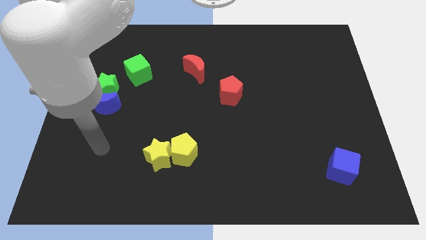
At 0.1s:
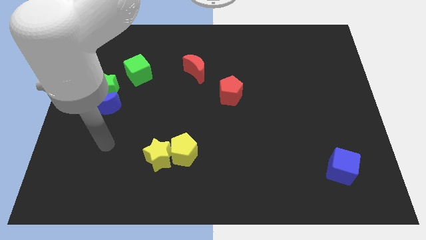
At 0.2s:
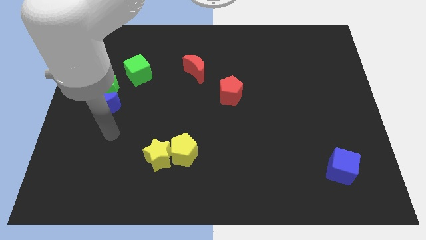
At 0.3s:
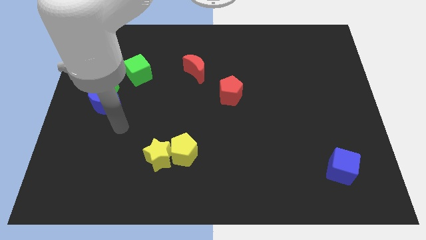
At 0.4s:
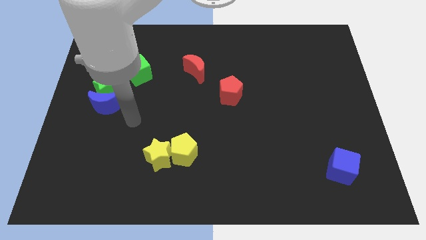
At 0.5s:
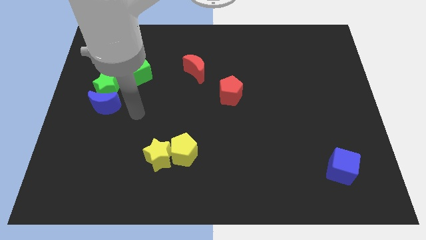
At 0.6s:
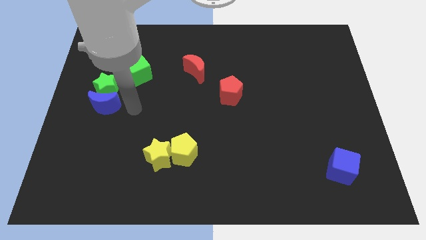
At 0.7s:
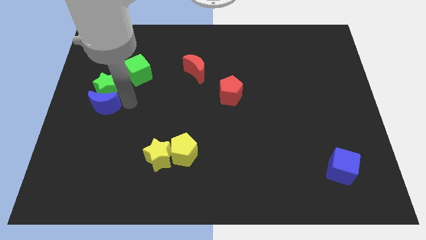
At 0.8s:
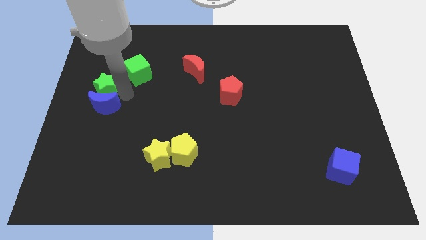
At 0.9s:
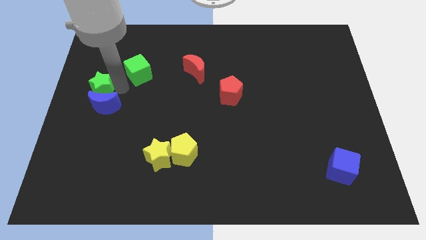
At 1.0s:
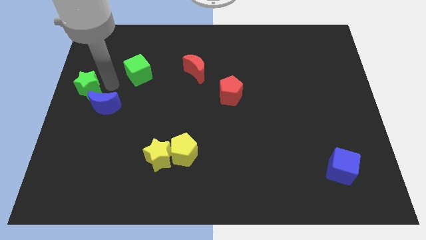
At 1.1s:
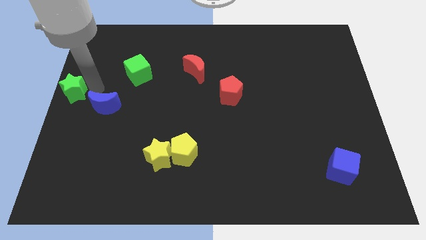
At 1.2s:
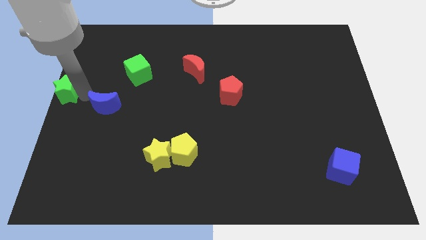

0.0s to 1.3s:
pull the blue moon apart from the green star

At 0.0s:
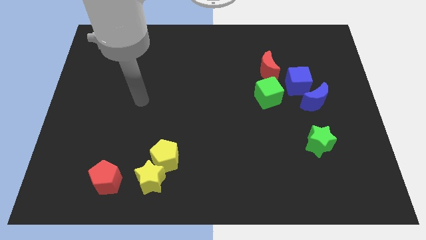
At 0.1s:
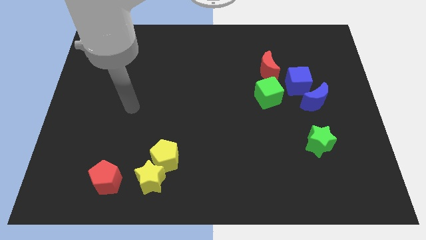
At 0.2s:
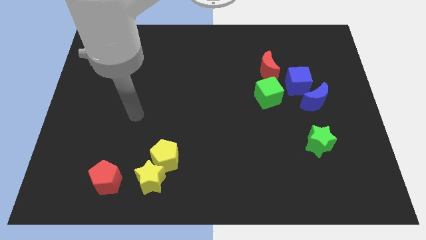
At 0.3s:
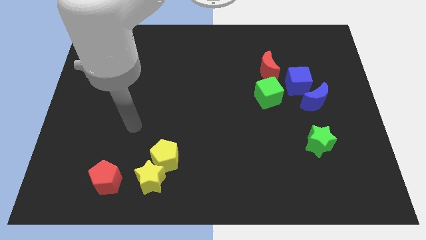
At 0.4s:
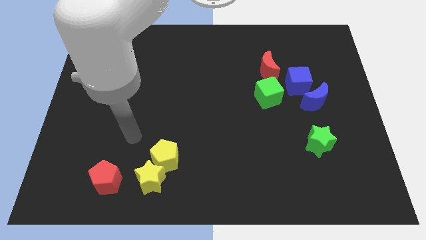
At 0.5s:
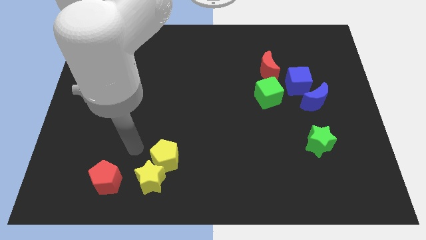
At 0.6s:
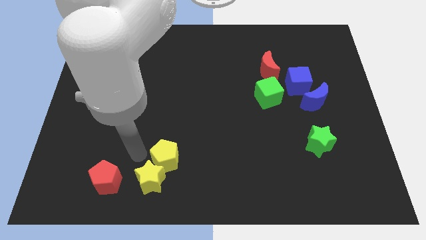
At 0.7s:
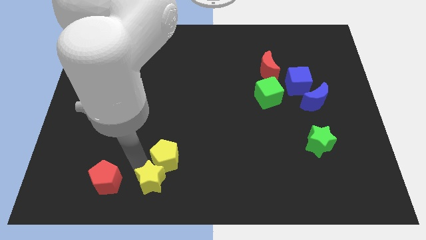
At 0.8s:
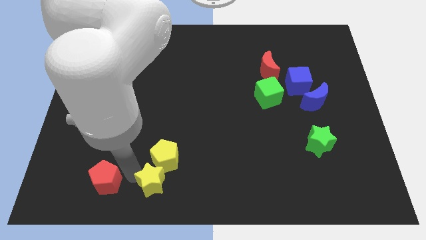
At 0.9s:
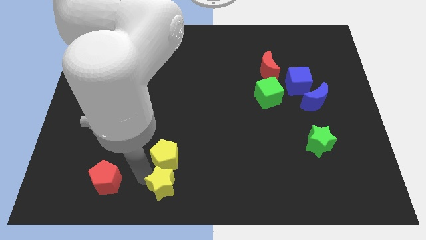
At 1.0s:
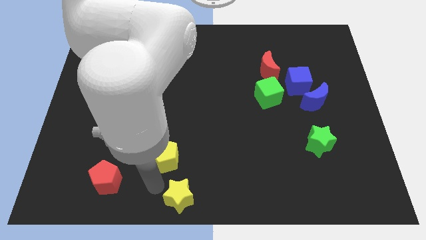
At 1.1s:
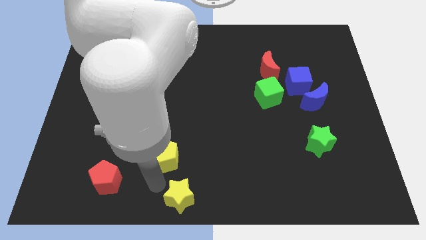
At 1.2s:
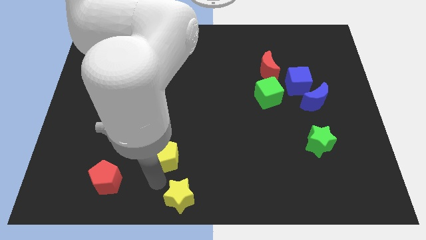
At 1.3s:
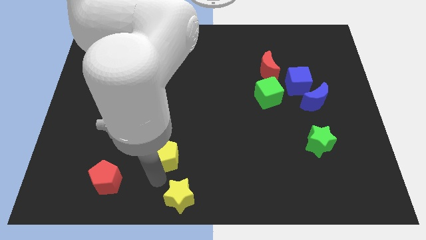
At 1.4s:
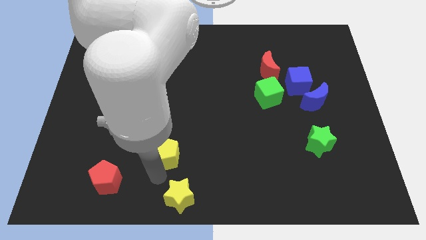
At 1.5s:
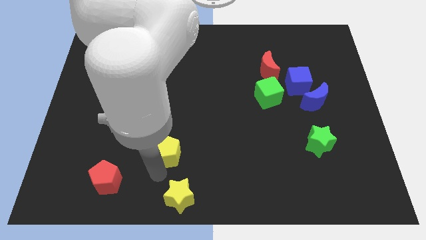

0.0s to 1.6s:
move the yellow pentagon away from the yellow star

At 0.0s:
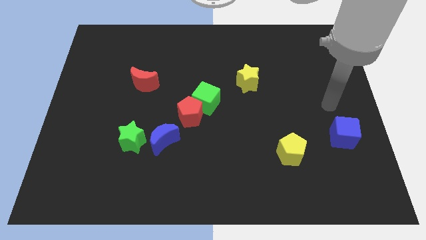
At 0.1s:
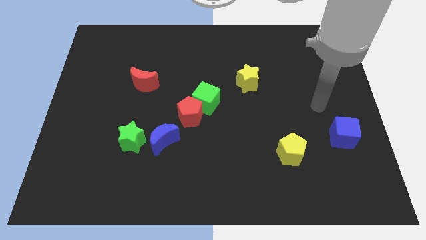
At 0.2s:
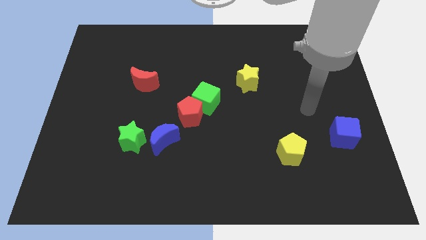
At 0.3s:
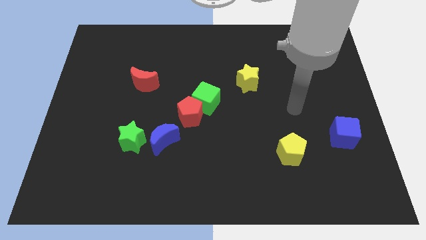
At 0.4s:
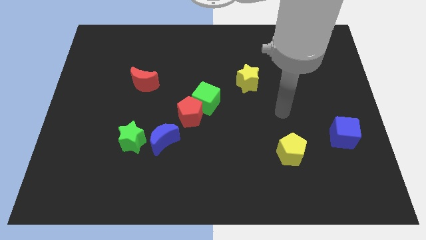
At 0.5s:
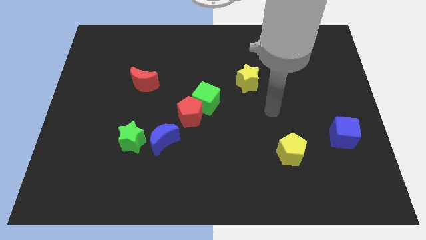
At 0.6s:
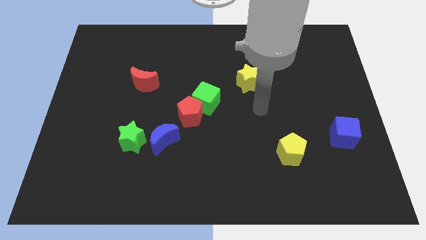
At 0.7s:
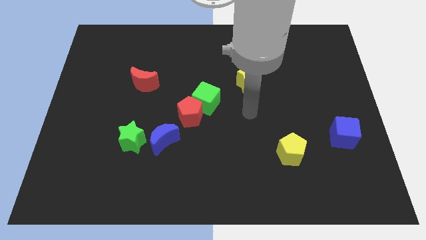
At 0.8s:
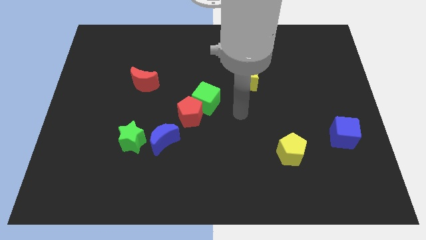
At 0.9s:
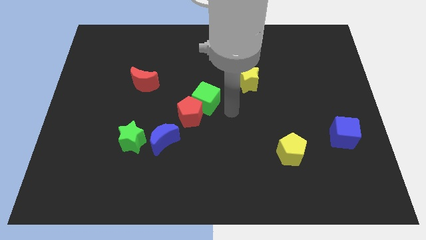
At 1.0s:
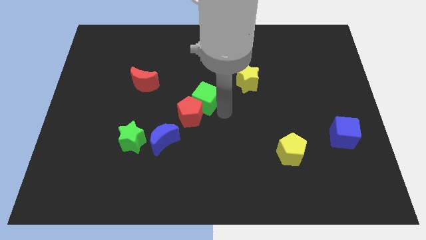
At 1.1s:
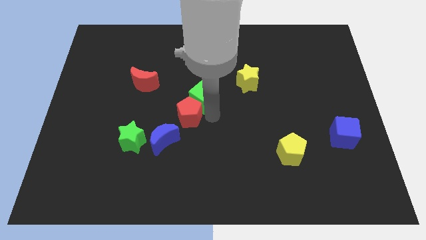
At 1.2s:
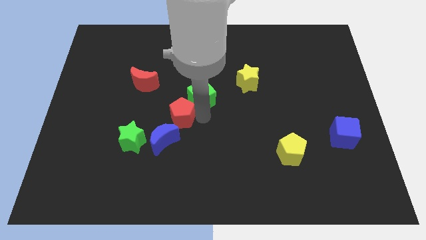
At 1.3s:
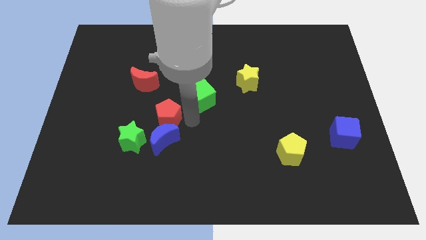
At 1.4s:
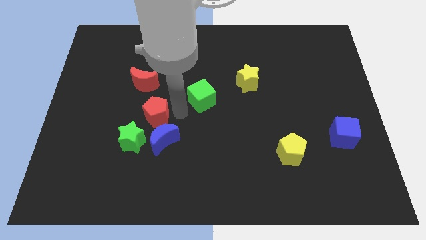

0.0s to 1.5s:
separate the green cube from the red pentagon

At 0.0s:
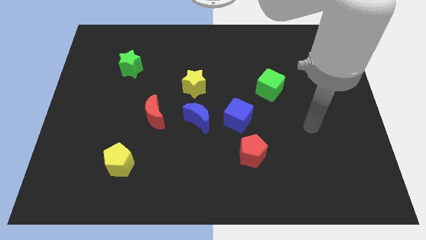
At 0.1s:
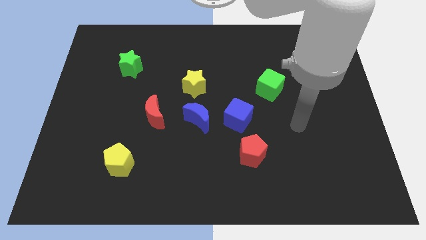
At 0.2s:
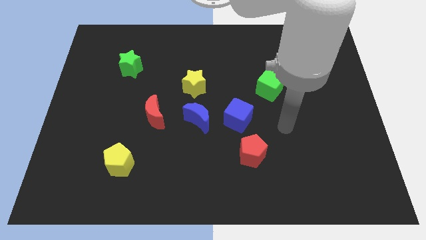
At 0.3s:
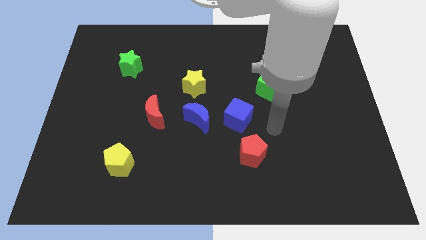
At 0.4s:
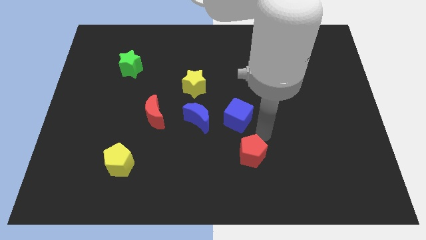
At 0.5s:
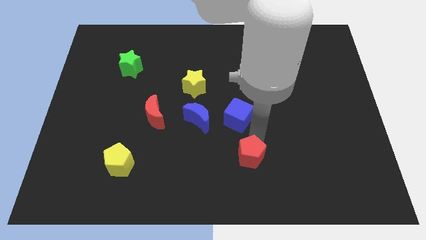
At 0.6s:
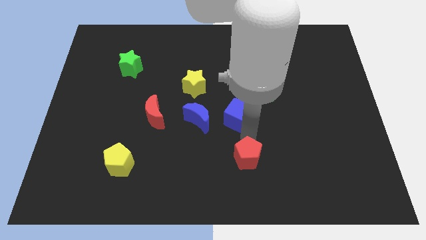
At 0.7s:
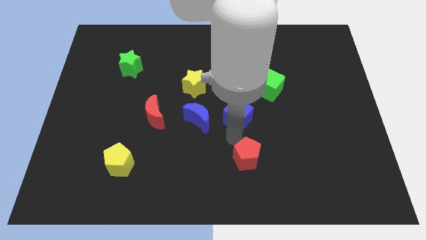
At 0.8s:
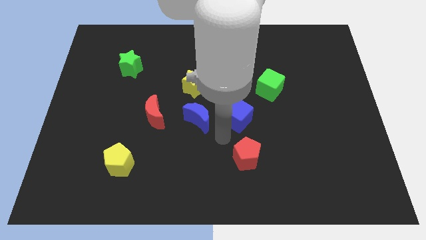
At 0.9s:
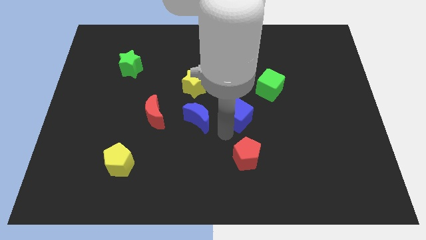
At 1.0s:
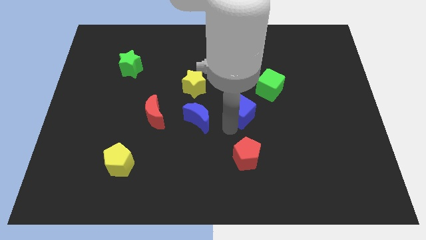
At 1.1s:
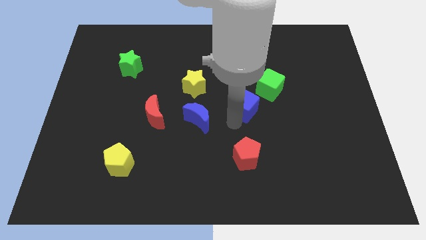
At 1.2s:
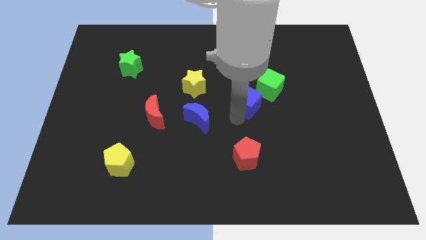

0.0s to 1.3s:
pull the blue cube apart from the blue moon and red pentagon

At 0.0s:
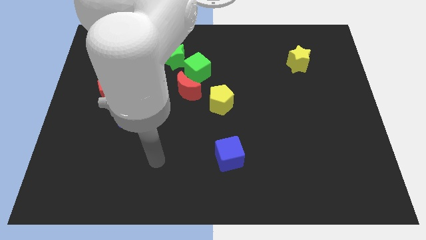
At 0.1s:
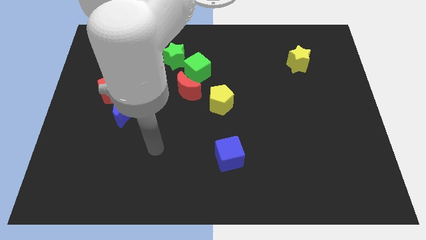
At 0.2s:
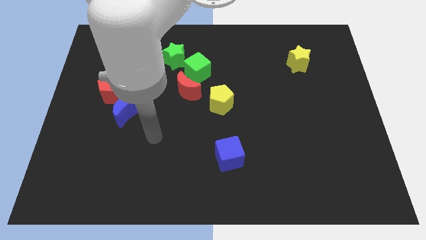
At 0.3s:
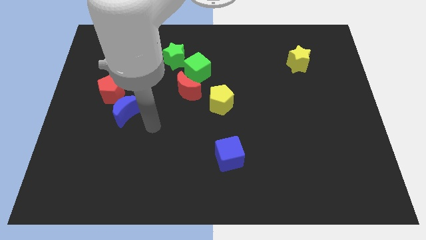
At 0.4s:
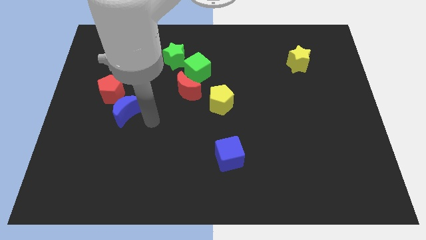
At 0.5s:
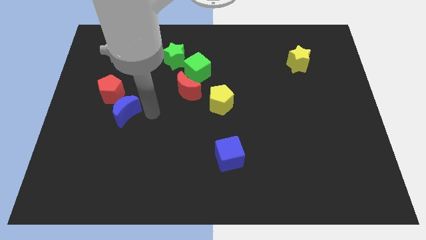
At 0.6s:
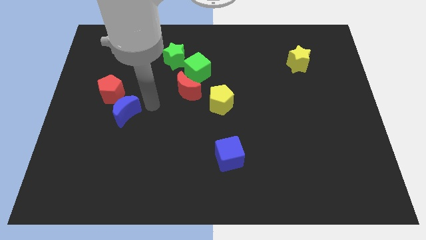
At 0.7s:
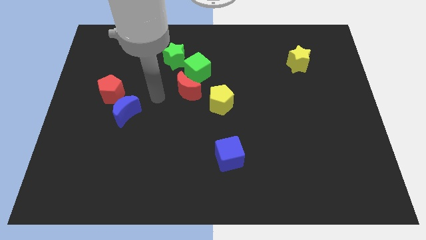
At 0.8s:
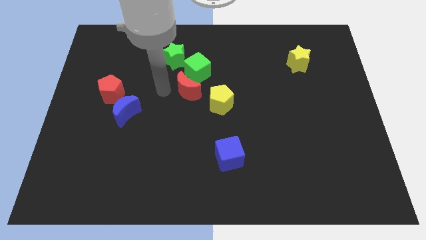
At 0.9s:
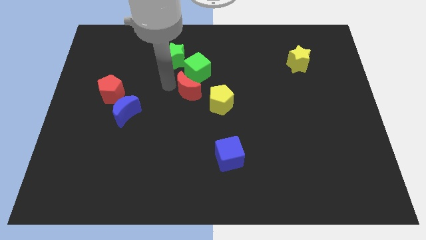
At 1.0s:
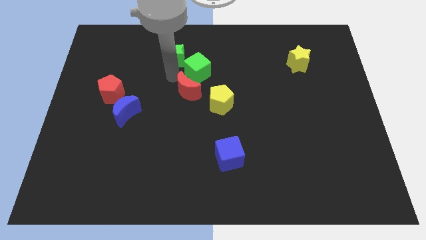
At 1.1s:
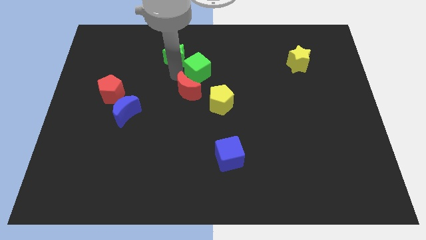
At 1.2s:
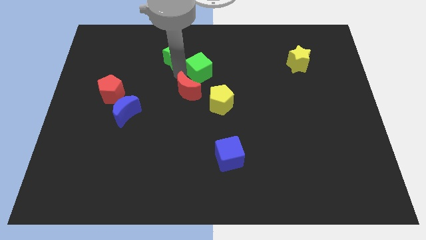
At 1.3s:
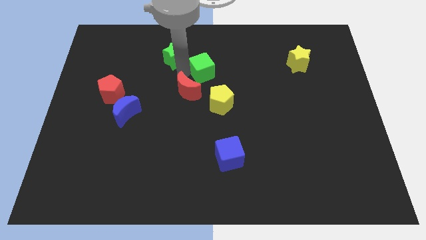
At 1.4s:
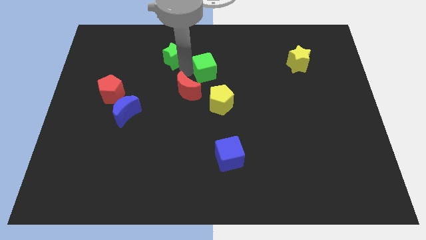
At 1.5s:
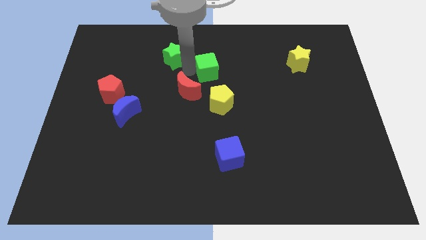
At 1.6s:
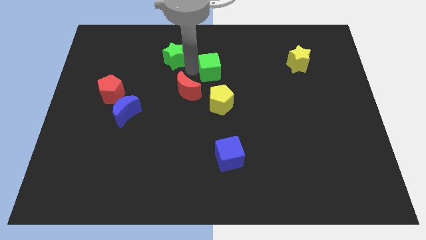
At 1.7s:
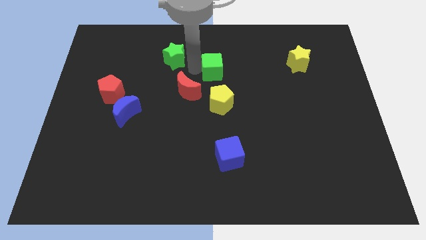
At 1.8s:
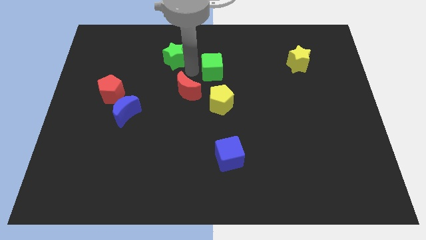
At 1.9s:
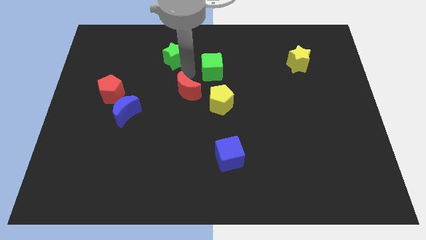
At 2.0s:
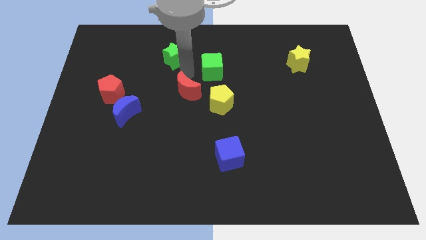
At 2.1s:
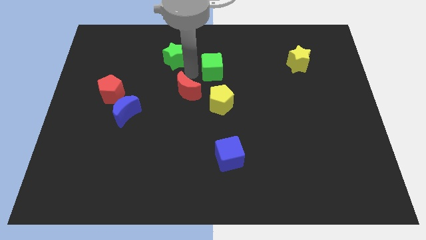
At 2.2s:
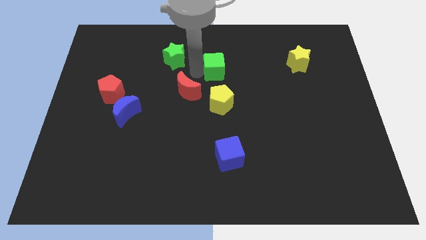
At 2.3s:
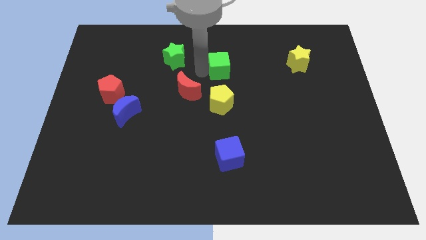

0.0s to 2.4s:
move the green cube away from the red moon and green star

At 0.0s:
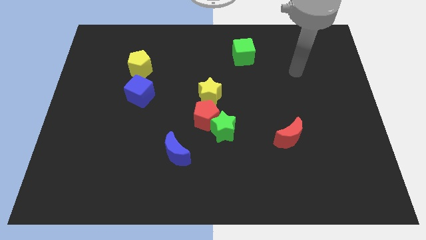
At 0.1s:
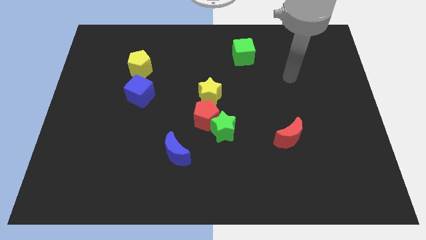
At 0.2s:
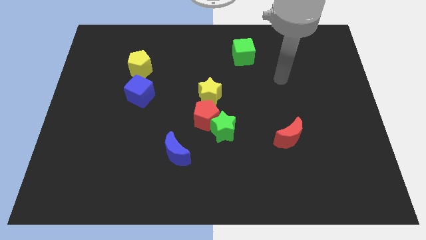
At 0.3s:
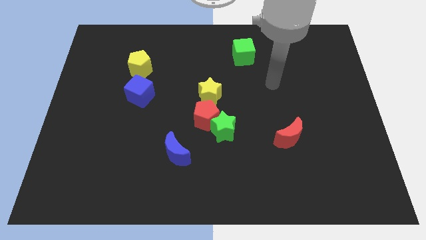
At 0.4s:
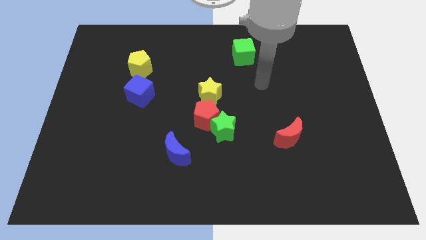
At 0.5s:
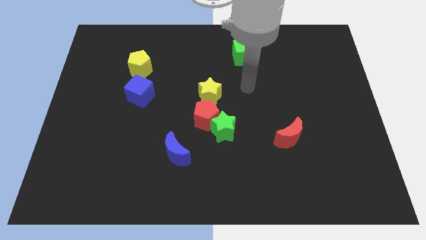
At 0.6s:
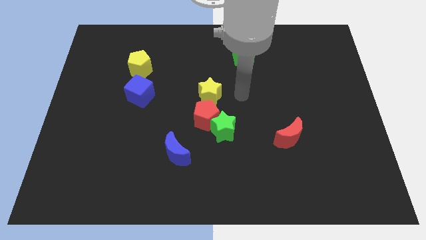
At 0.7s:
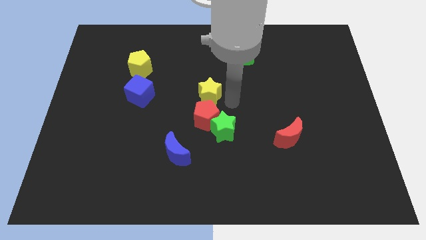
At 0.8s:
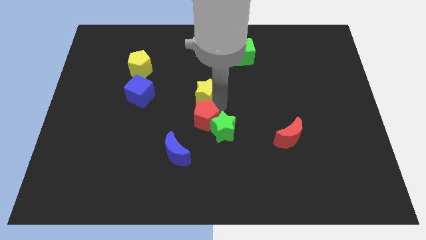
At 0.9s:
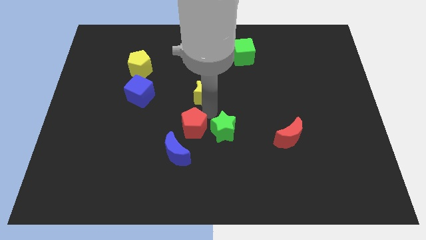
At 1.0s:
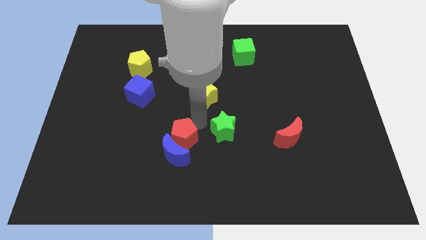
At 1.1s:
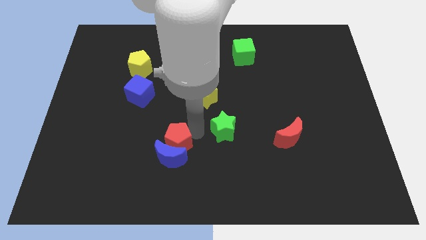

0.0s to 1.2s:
pull the green star apart from the red pentagon
